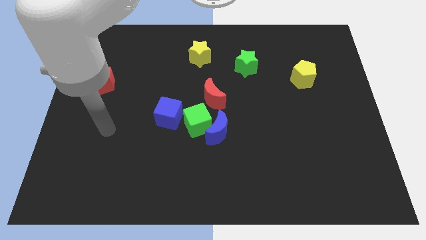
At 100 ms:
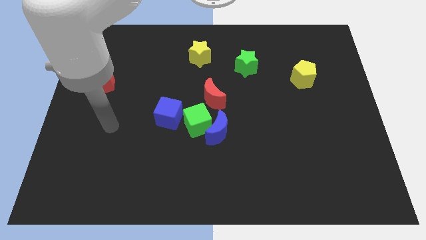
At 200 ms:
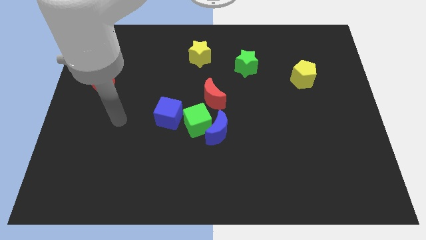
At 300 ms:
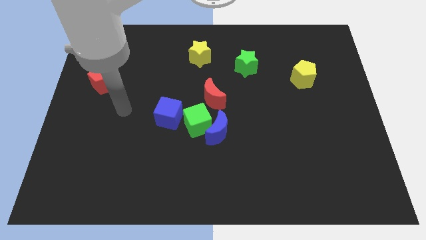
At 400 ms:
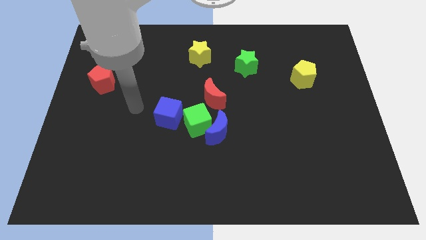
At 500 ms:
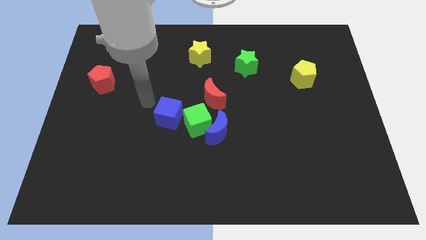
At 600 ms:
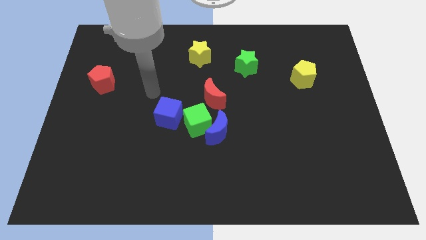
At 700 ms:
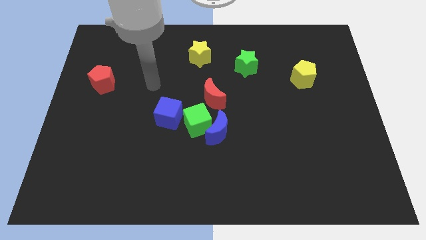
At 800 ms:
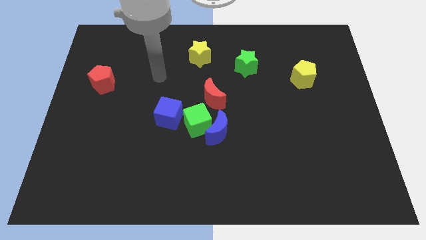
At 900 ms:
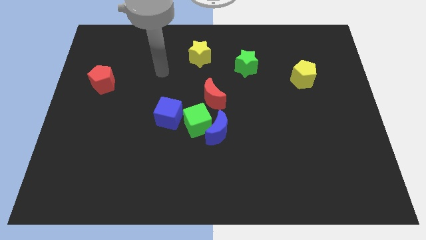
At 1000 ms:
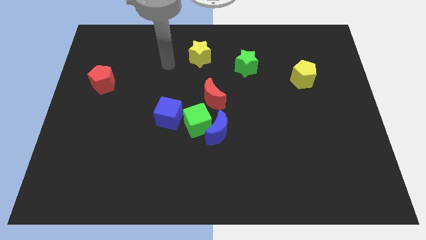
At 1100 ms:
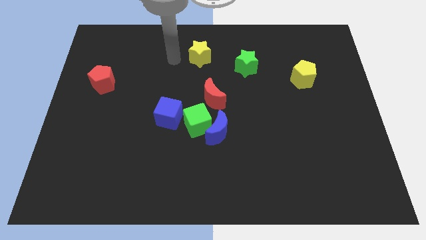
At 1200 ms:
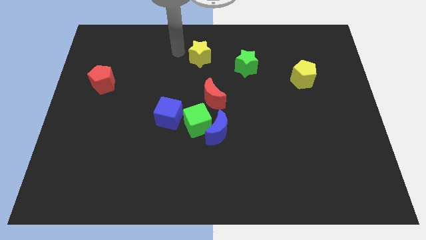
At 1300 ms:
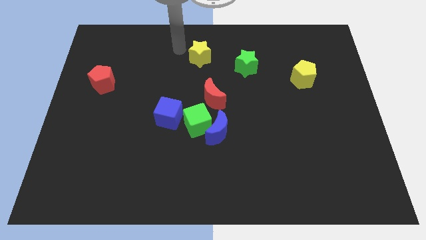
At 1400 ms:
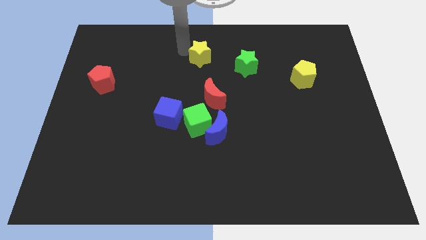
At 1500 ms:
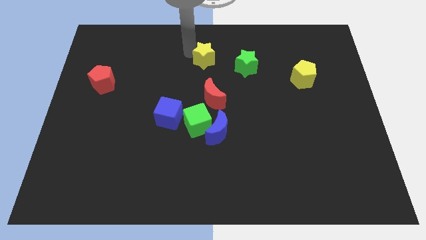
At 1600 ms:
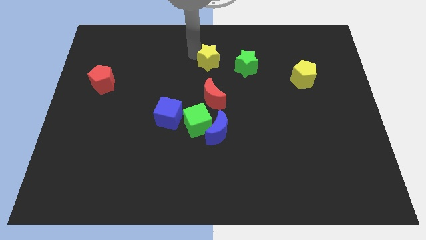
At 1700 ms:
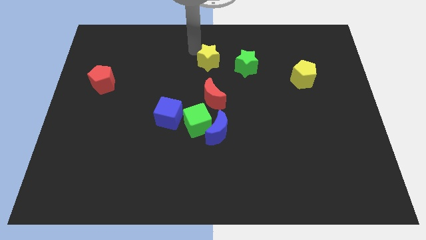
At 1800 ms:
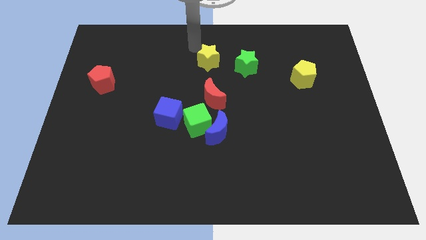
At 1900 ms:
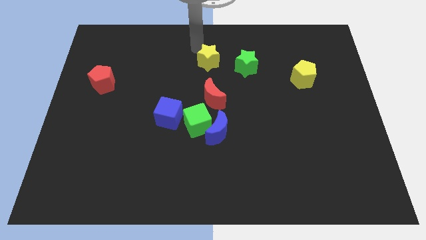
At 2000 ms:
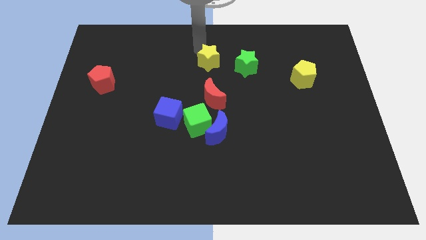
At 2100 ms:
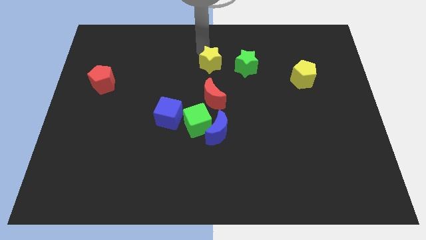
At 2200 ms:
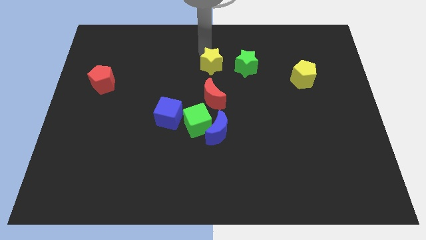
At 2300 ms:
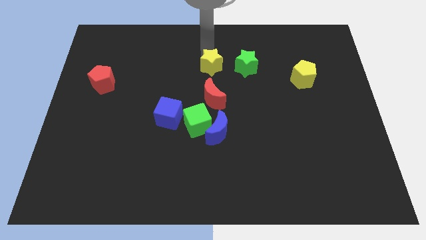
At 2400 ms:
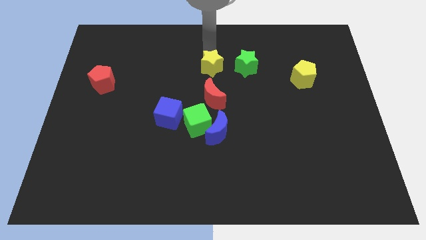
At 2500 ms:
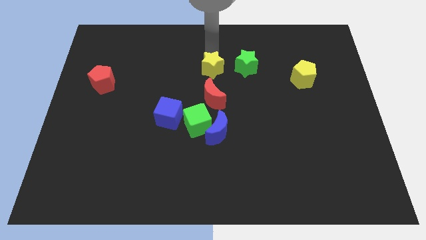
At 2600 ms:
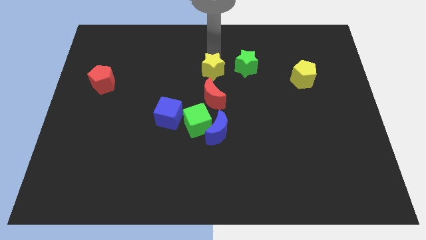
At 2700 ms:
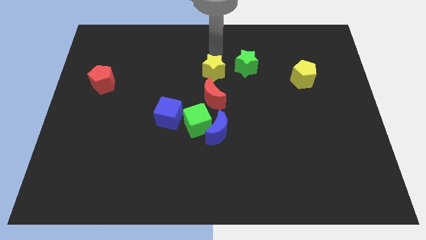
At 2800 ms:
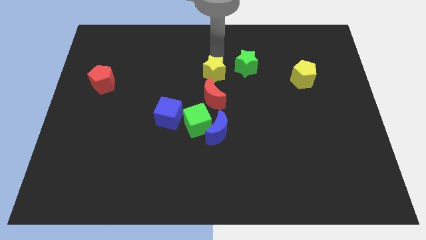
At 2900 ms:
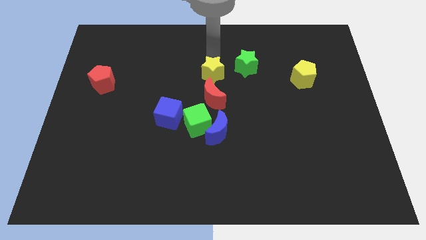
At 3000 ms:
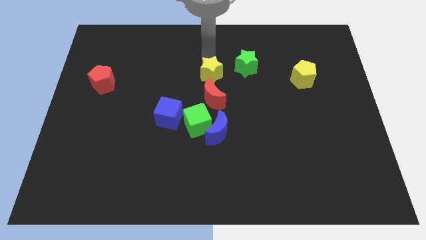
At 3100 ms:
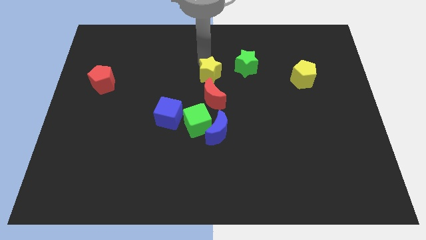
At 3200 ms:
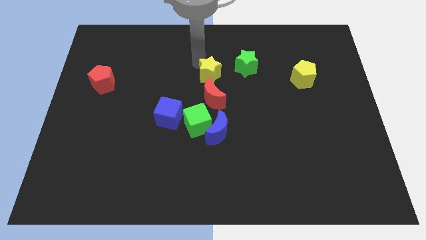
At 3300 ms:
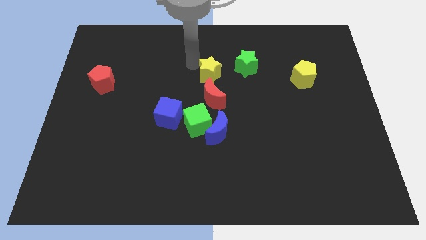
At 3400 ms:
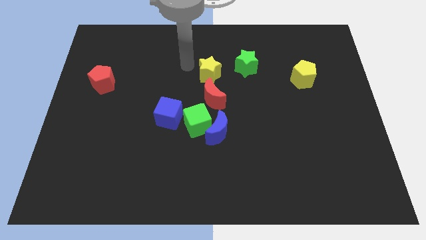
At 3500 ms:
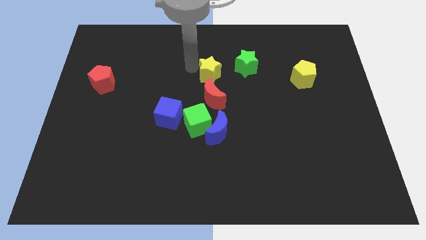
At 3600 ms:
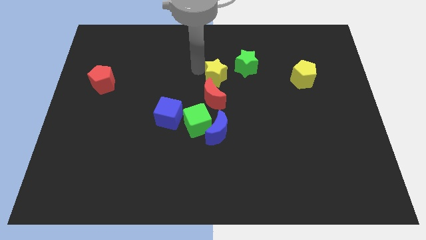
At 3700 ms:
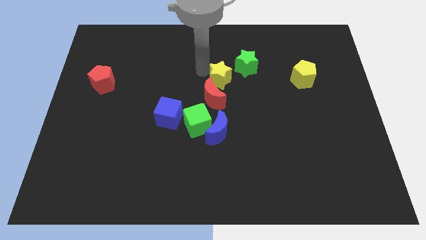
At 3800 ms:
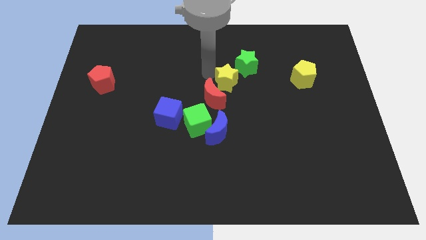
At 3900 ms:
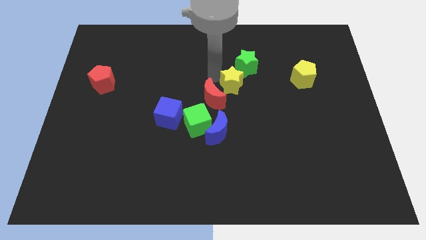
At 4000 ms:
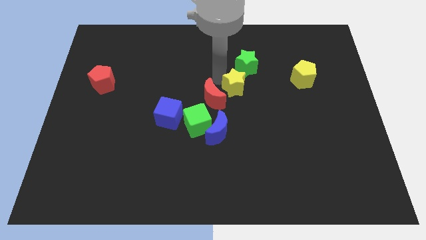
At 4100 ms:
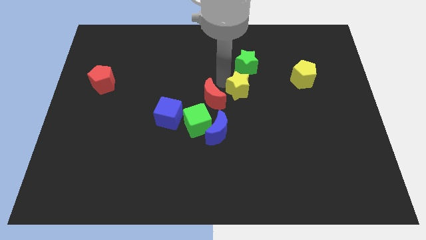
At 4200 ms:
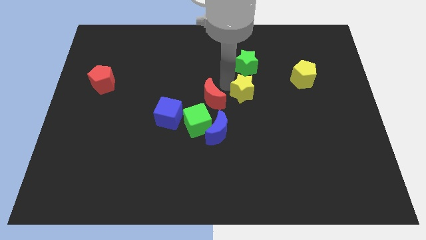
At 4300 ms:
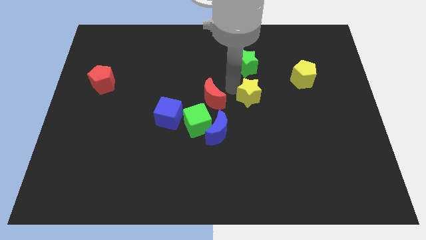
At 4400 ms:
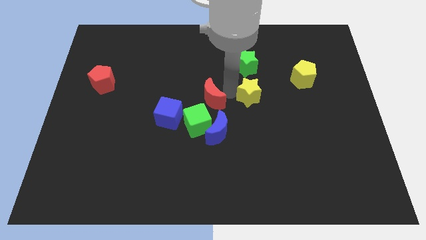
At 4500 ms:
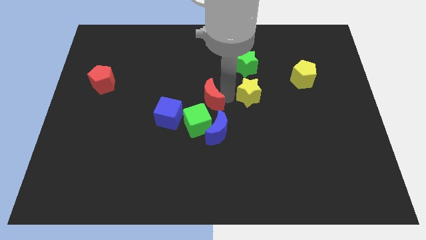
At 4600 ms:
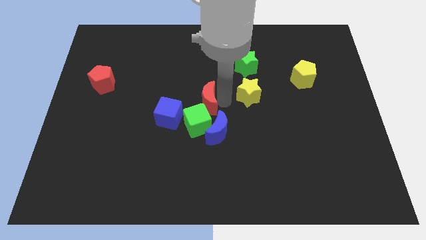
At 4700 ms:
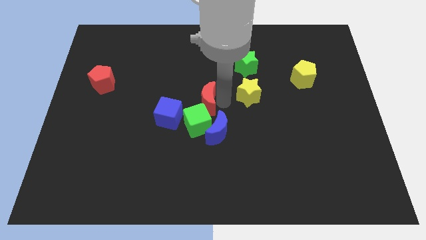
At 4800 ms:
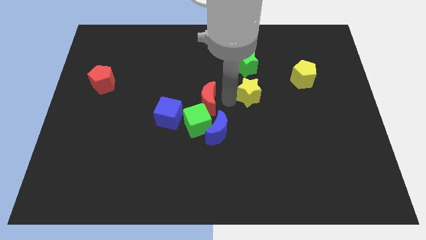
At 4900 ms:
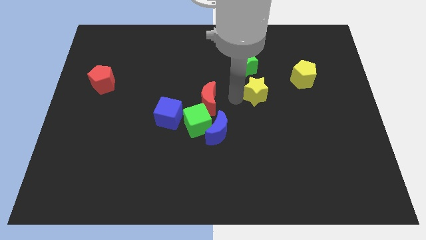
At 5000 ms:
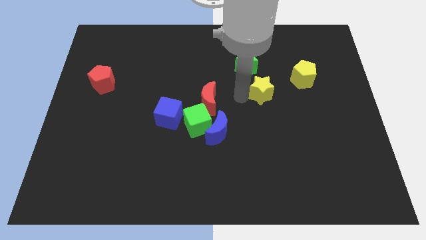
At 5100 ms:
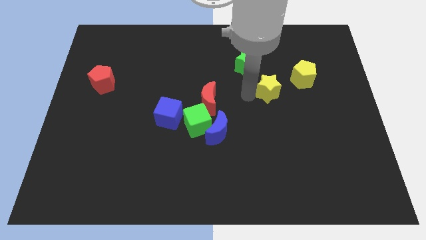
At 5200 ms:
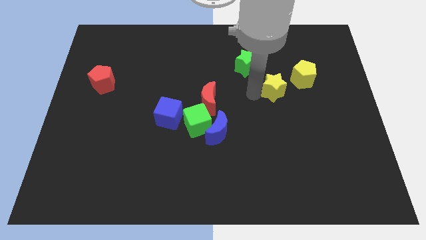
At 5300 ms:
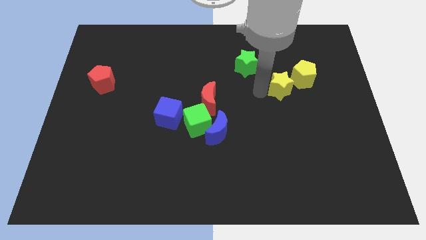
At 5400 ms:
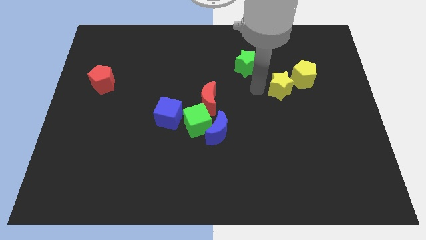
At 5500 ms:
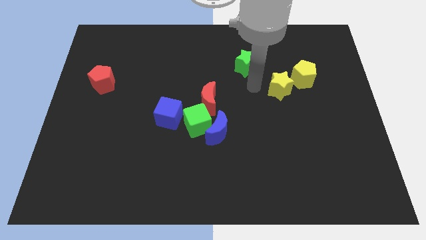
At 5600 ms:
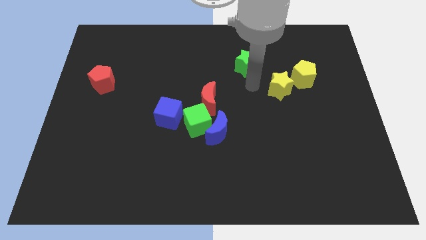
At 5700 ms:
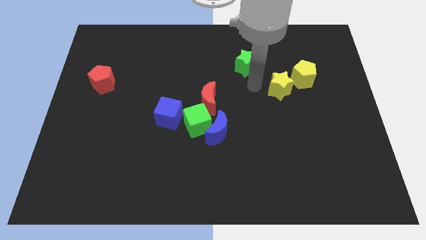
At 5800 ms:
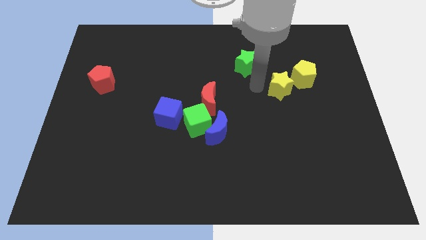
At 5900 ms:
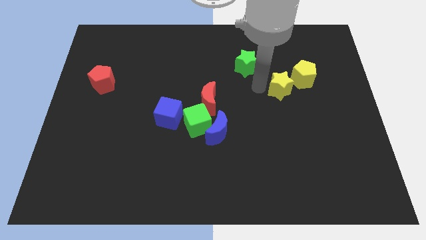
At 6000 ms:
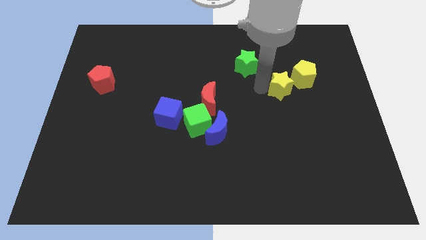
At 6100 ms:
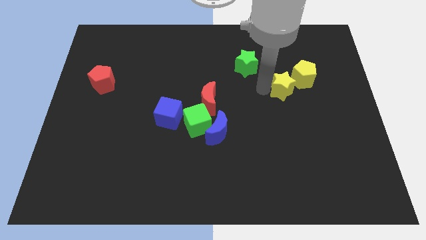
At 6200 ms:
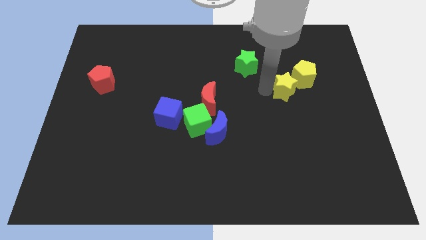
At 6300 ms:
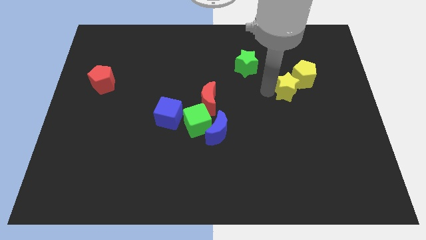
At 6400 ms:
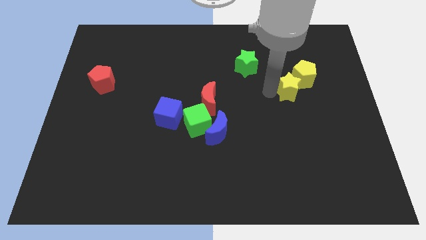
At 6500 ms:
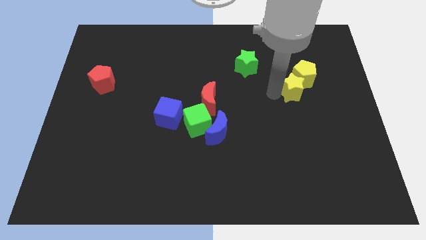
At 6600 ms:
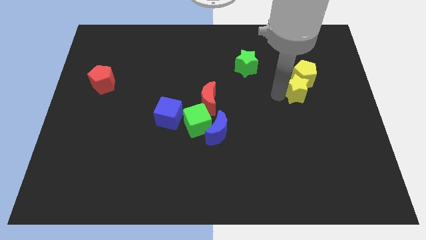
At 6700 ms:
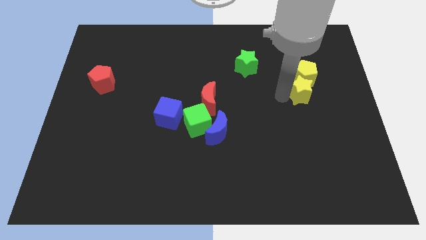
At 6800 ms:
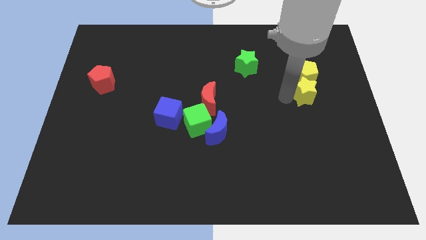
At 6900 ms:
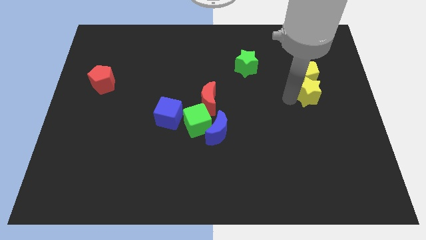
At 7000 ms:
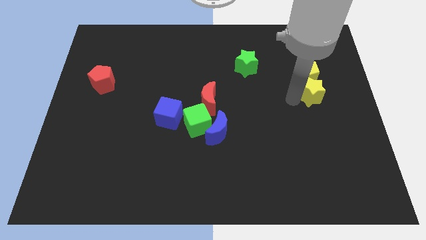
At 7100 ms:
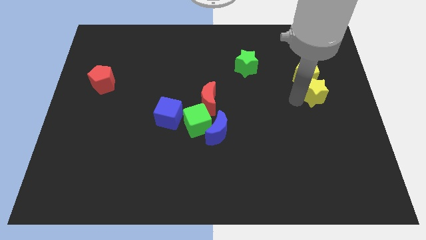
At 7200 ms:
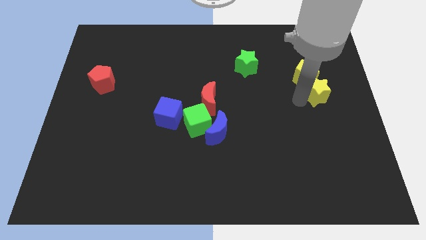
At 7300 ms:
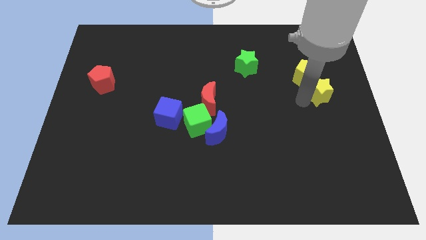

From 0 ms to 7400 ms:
slide the yellow star to the right side
